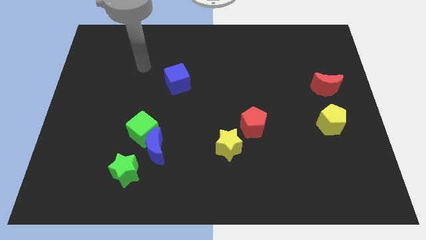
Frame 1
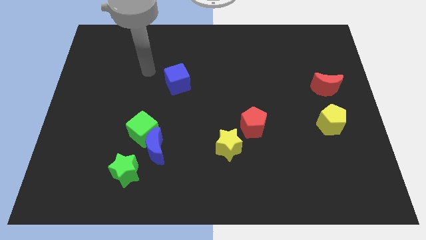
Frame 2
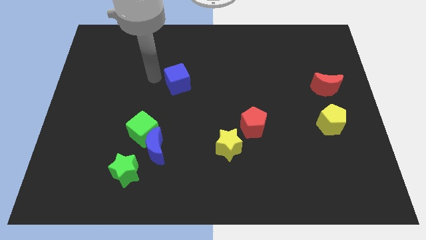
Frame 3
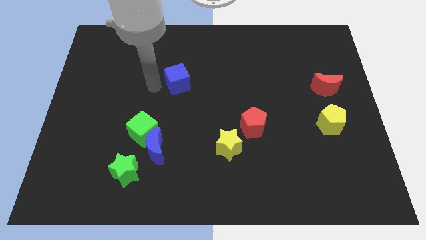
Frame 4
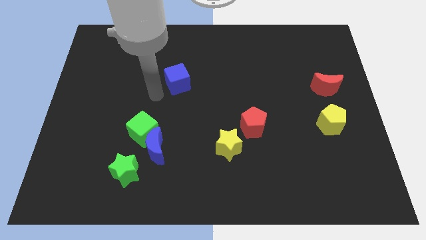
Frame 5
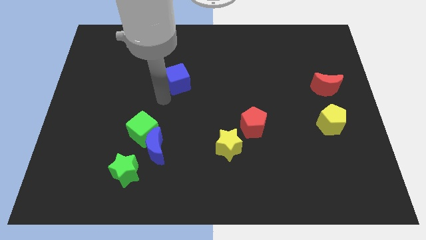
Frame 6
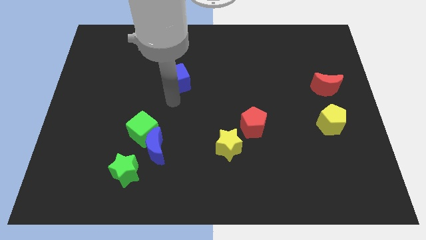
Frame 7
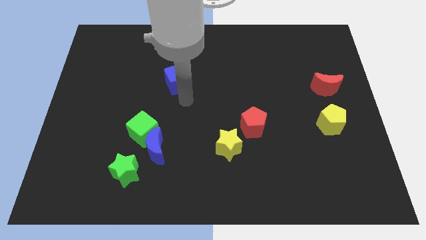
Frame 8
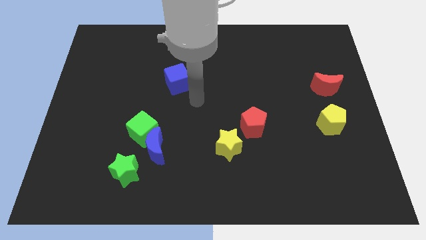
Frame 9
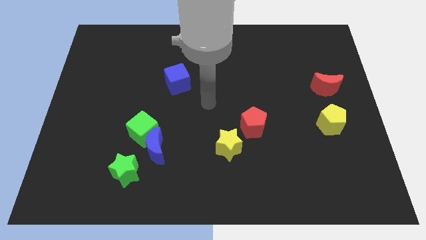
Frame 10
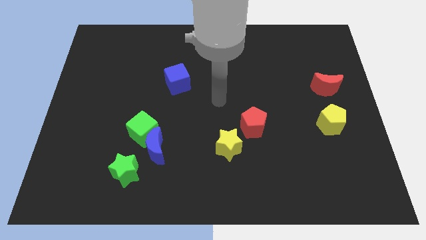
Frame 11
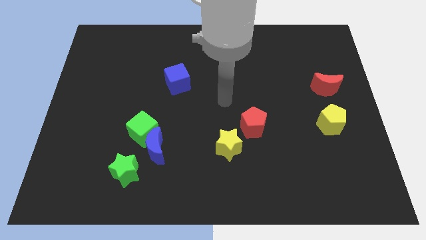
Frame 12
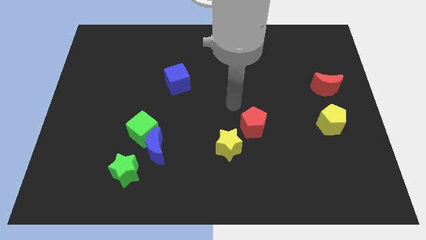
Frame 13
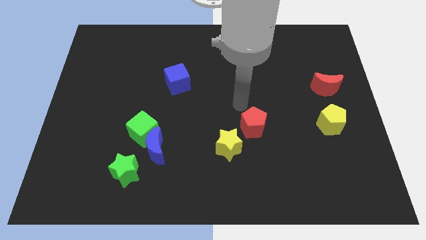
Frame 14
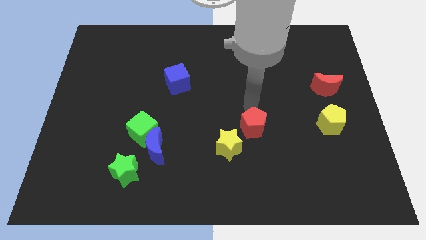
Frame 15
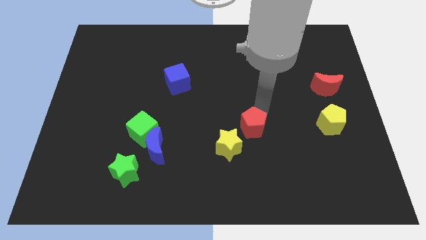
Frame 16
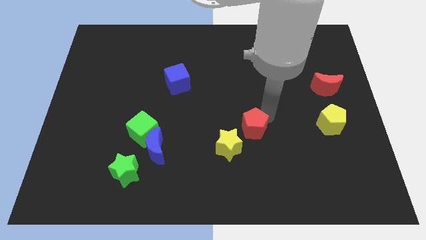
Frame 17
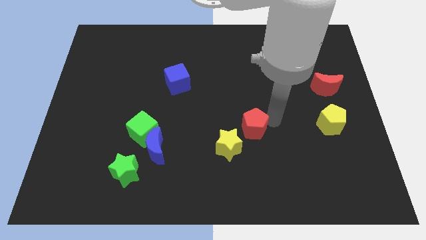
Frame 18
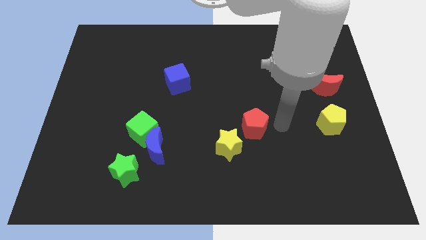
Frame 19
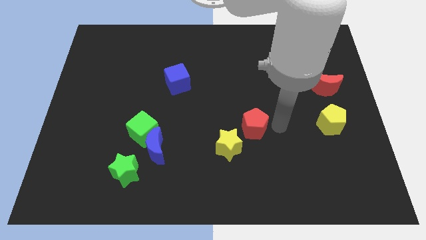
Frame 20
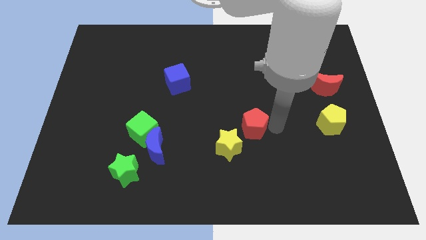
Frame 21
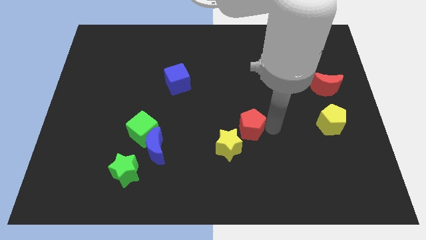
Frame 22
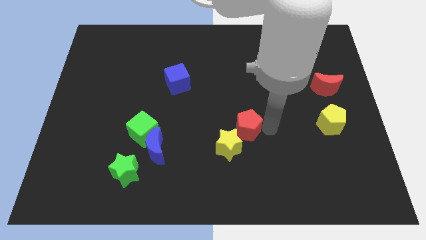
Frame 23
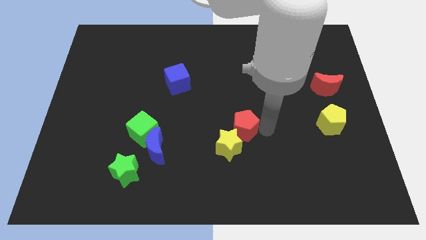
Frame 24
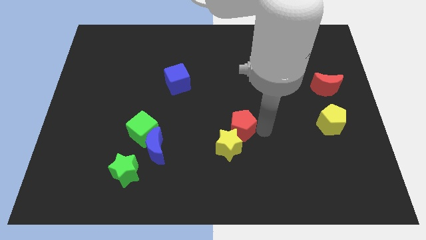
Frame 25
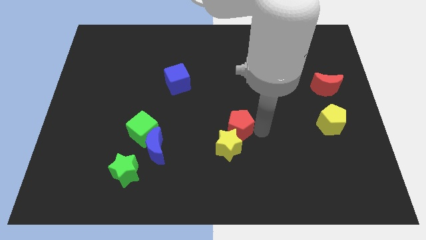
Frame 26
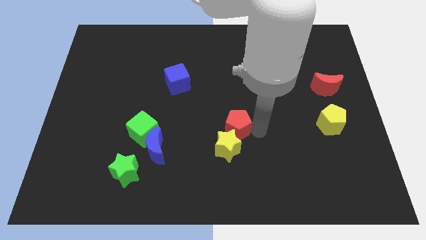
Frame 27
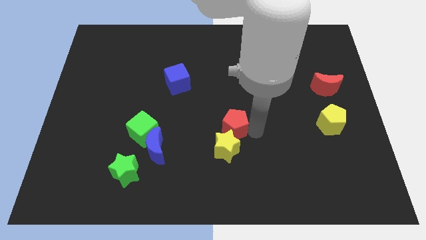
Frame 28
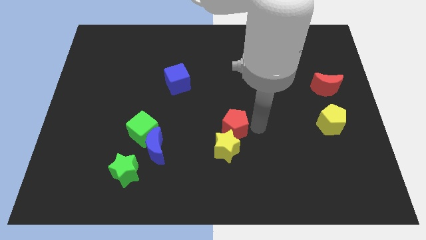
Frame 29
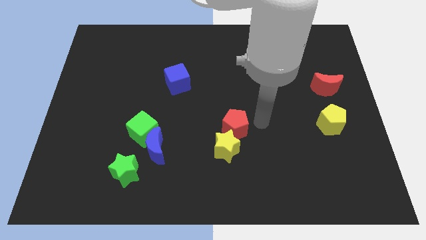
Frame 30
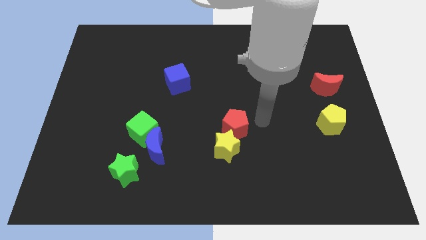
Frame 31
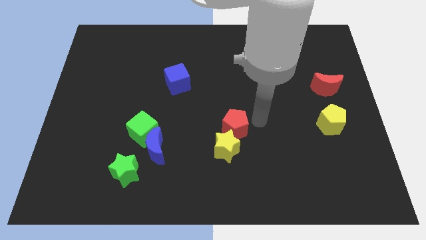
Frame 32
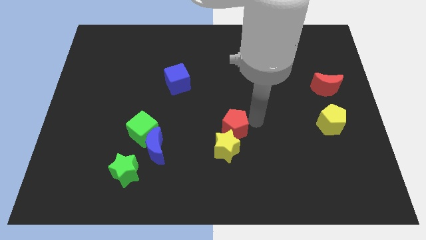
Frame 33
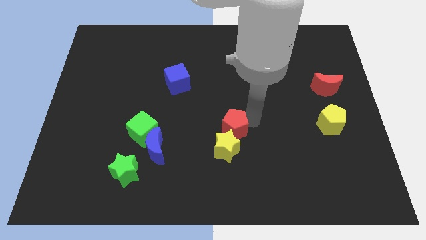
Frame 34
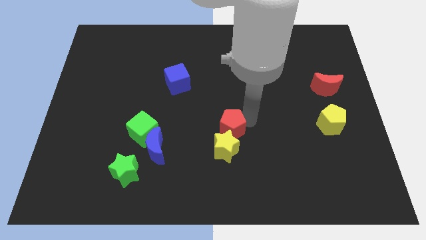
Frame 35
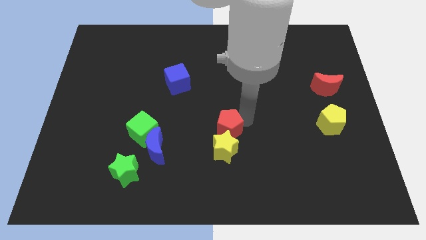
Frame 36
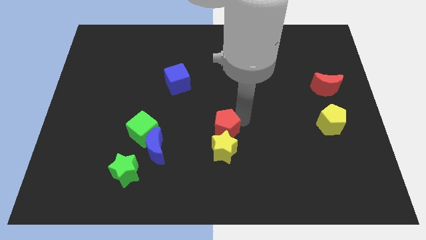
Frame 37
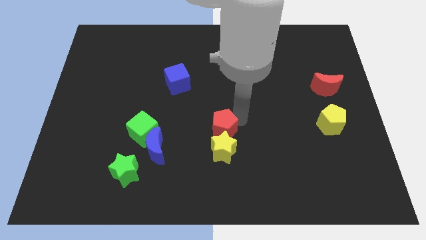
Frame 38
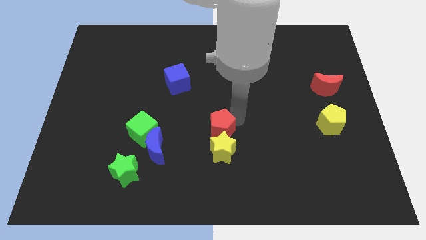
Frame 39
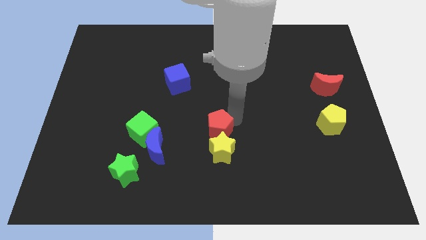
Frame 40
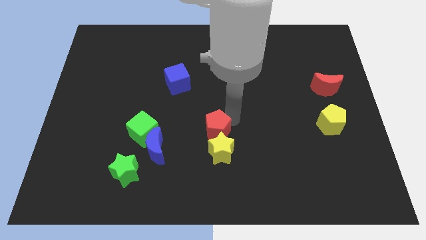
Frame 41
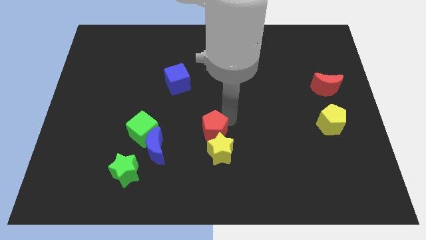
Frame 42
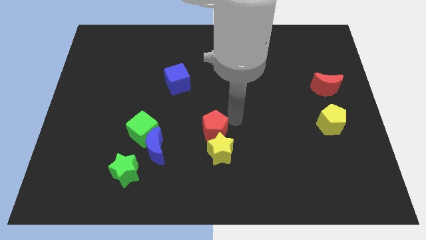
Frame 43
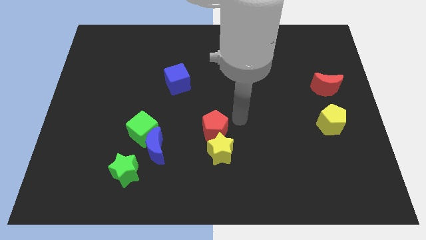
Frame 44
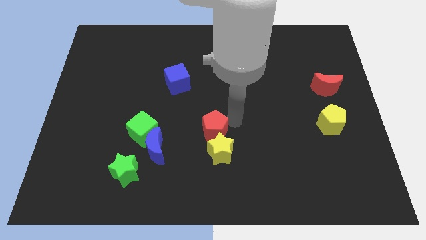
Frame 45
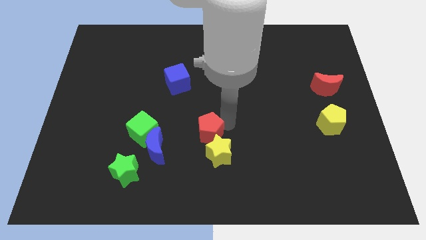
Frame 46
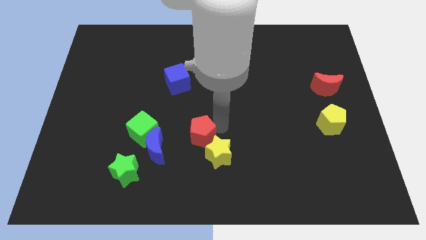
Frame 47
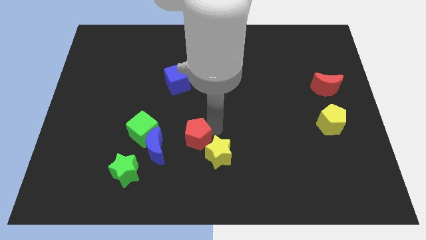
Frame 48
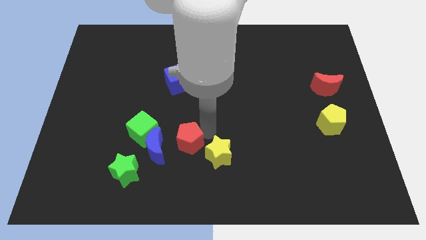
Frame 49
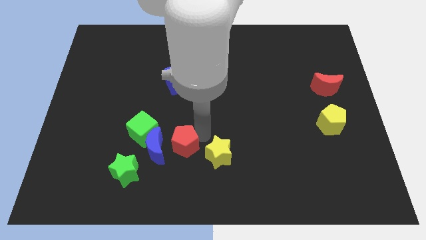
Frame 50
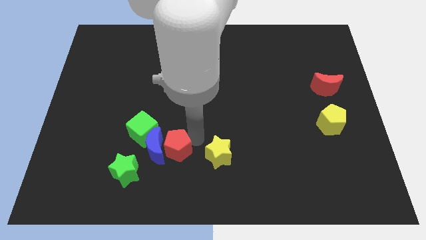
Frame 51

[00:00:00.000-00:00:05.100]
move the red pentagon towards the blue moon

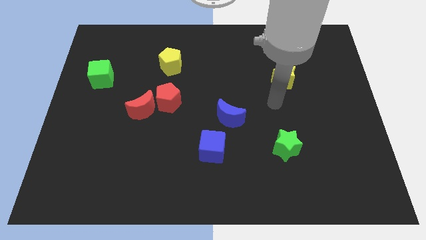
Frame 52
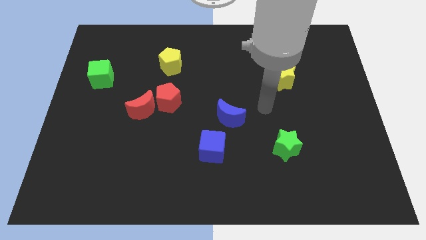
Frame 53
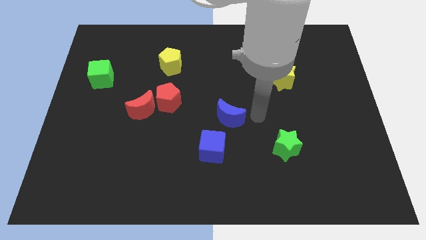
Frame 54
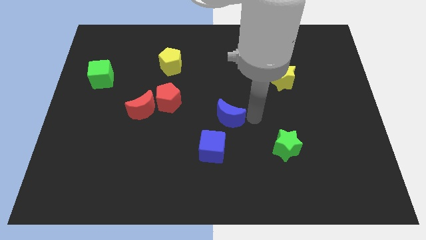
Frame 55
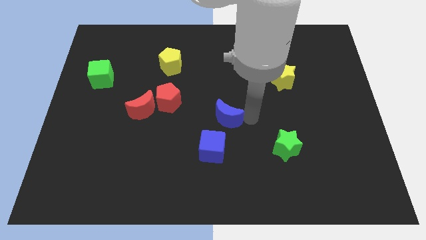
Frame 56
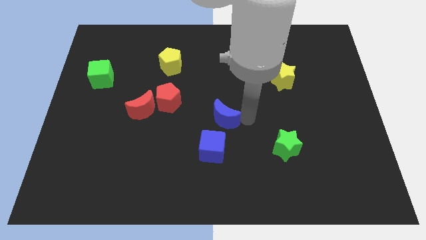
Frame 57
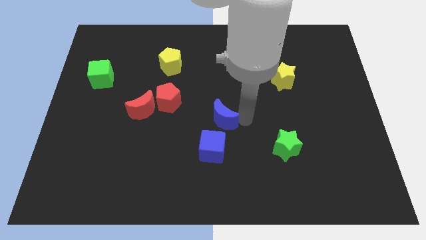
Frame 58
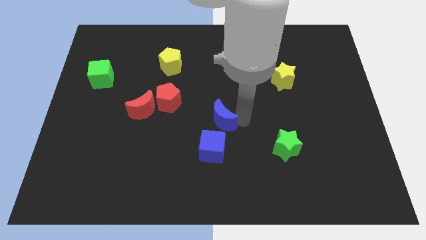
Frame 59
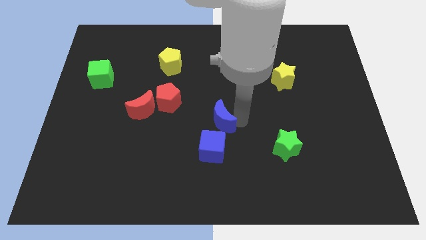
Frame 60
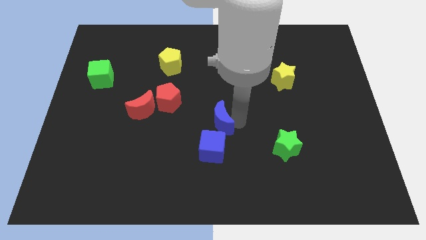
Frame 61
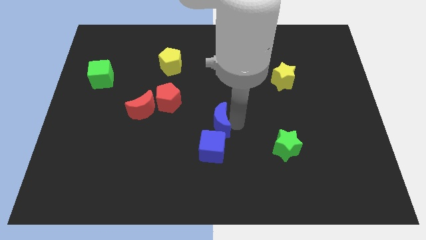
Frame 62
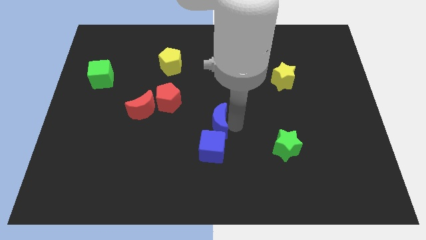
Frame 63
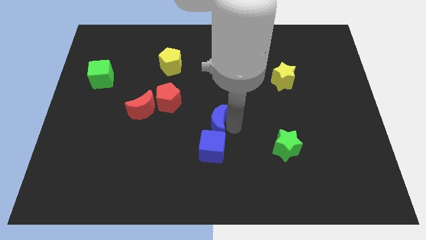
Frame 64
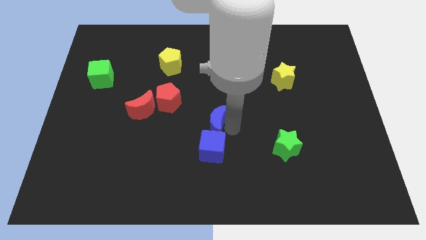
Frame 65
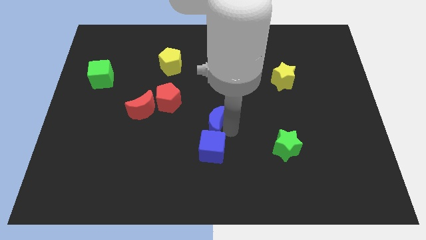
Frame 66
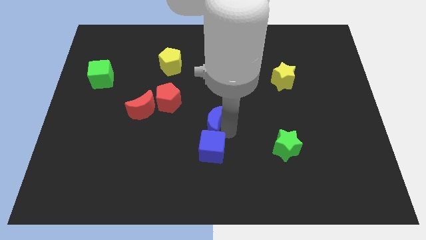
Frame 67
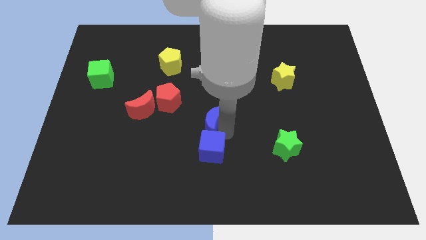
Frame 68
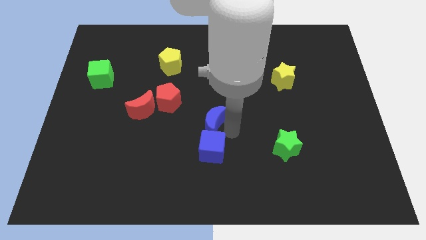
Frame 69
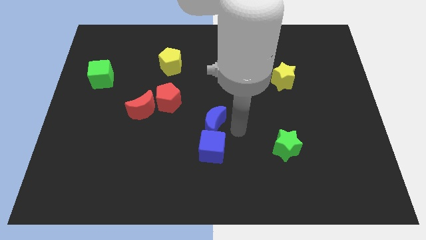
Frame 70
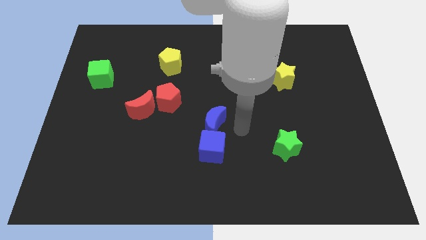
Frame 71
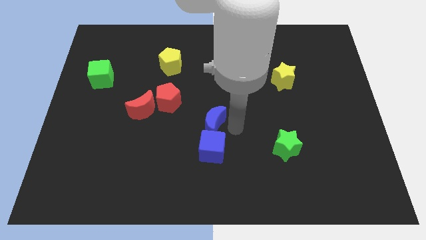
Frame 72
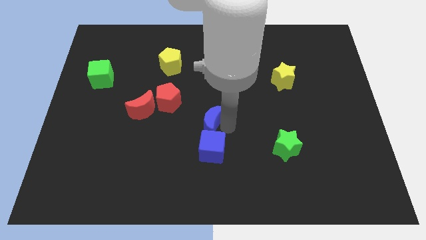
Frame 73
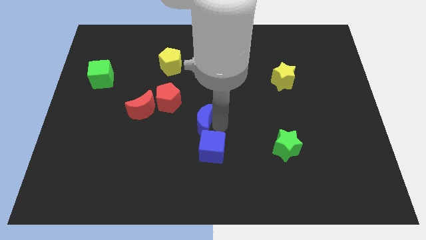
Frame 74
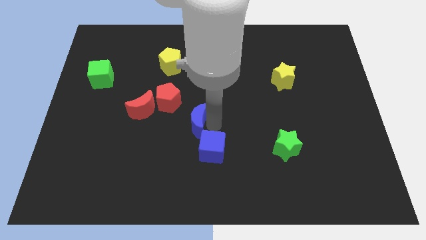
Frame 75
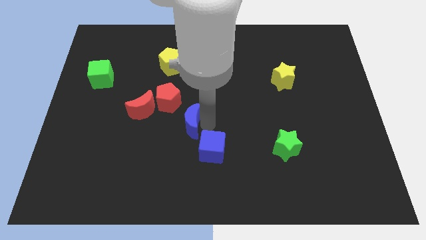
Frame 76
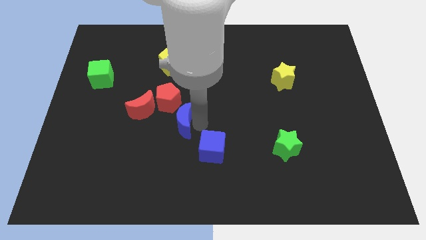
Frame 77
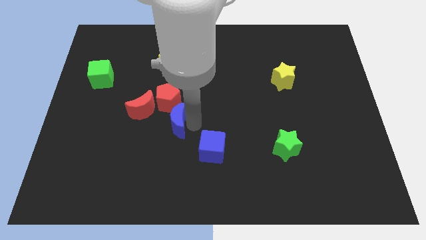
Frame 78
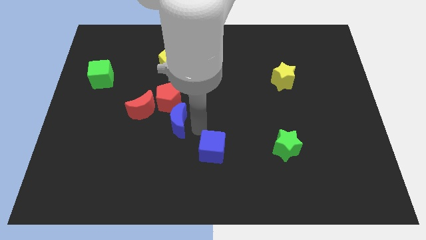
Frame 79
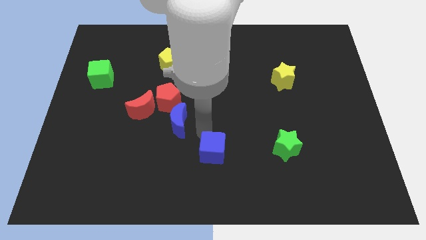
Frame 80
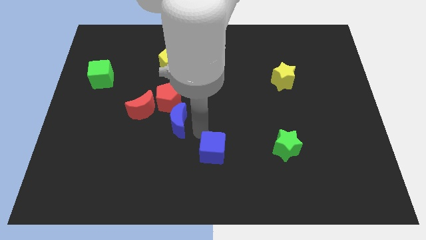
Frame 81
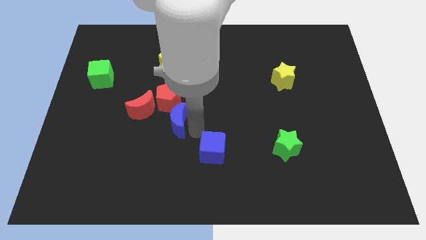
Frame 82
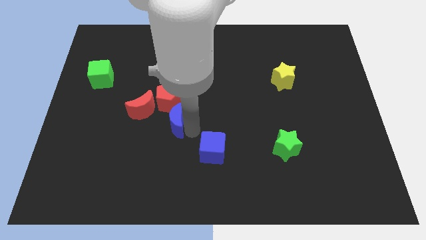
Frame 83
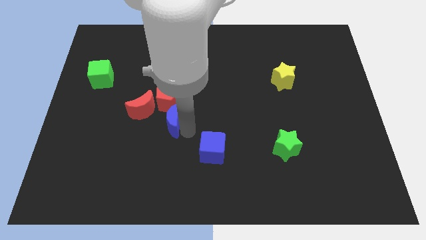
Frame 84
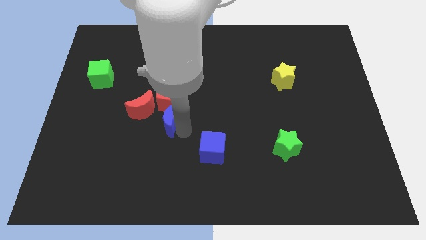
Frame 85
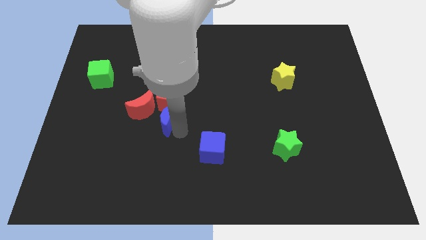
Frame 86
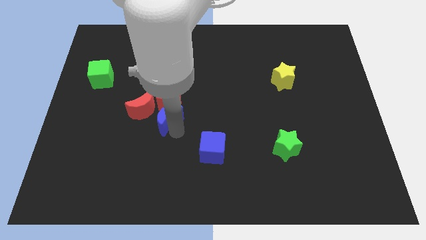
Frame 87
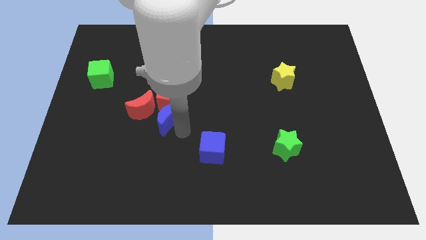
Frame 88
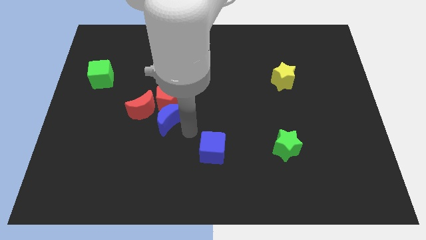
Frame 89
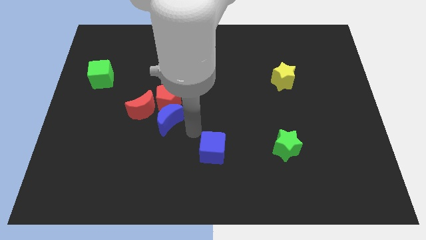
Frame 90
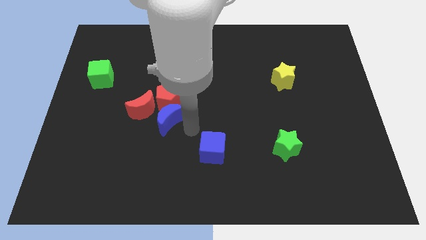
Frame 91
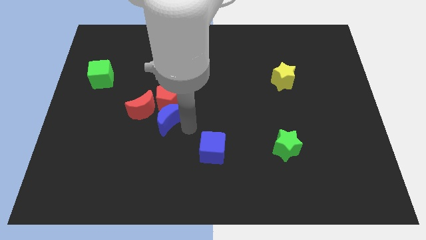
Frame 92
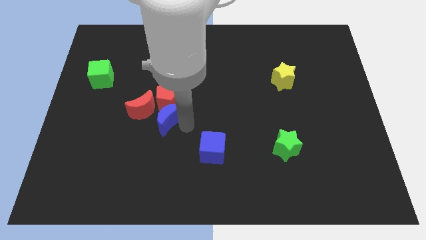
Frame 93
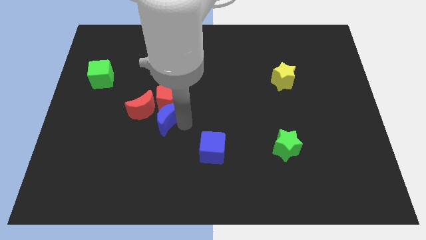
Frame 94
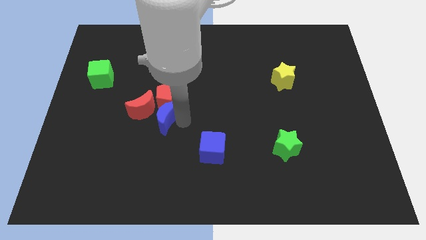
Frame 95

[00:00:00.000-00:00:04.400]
push the blue moon to the red moon
